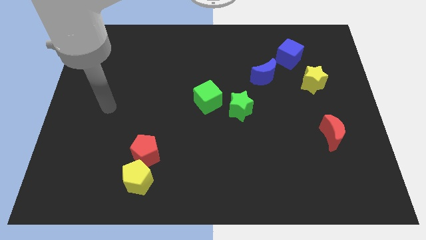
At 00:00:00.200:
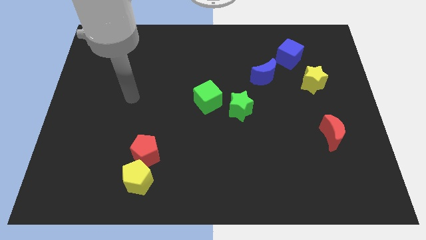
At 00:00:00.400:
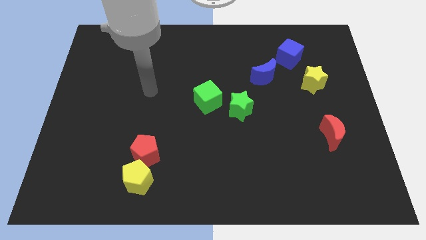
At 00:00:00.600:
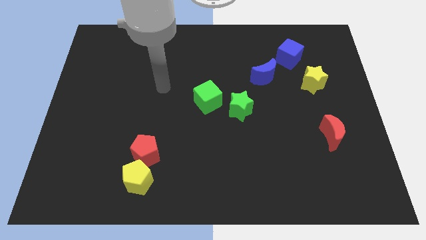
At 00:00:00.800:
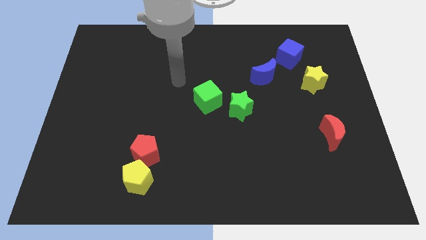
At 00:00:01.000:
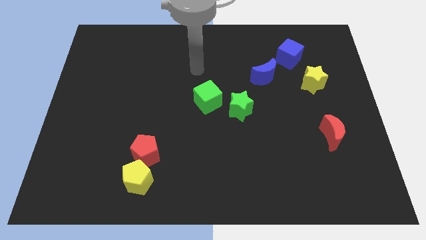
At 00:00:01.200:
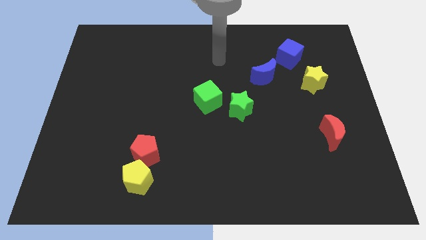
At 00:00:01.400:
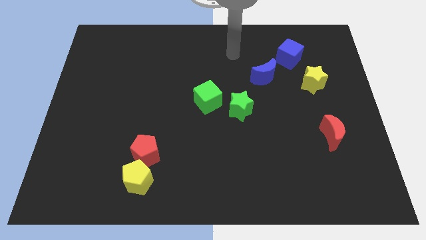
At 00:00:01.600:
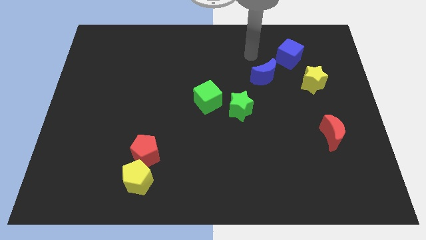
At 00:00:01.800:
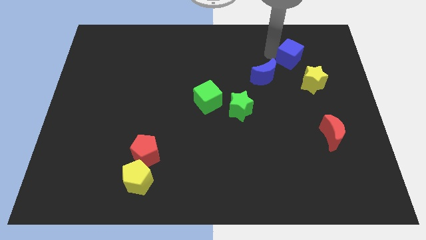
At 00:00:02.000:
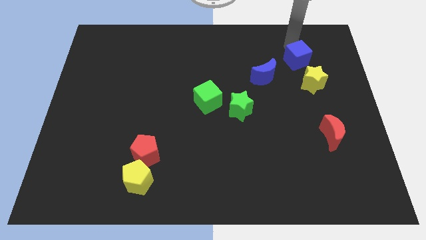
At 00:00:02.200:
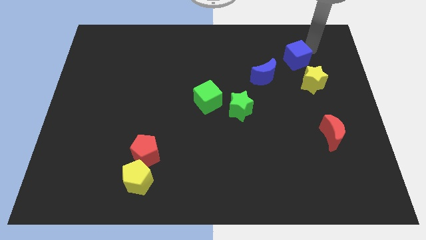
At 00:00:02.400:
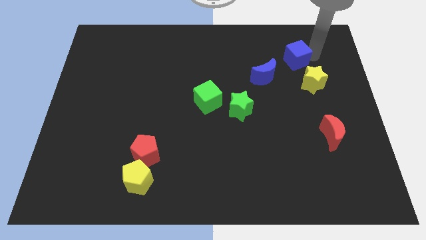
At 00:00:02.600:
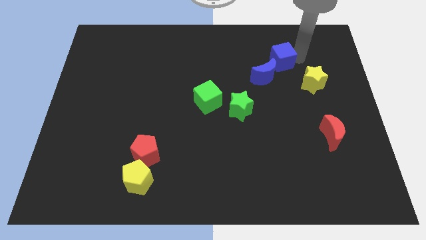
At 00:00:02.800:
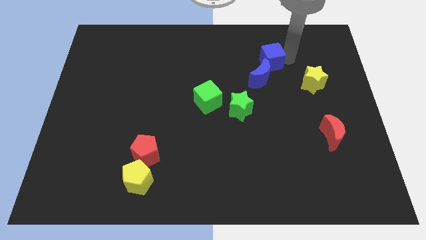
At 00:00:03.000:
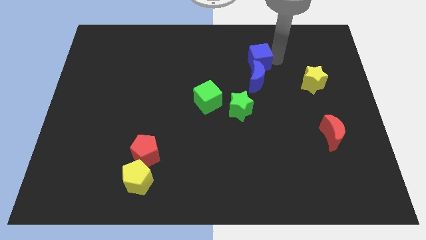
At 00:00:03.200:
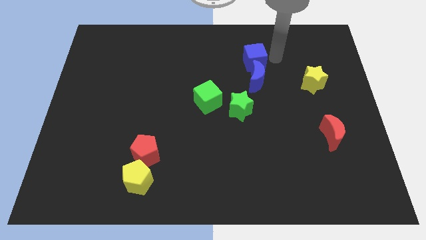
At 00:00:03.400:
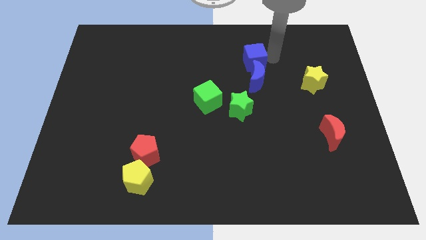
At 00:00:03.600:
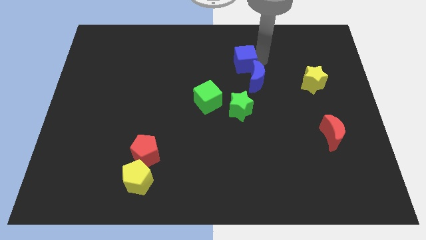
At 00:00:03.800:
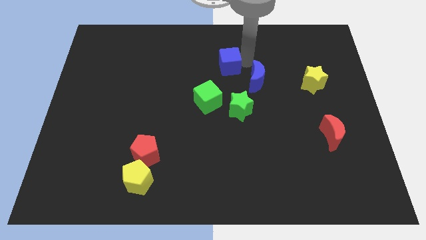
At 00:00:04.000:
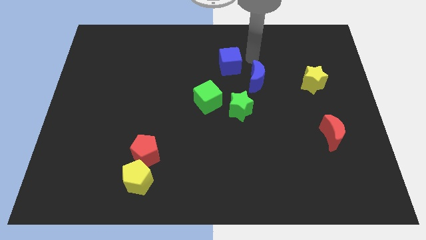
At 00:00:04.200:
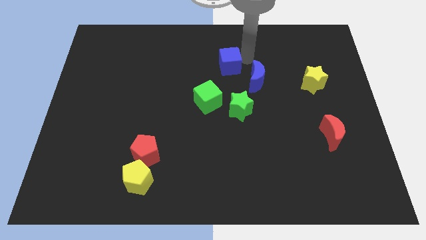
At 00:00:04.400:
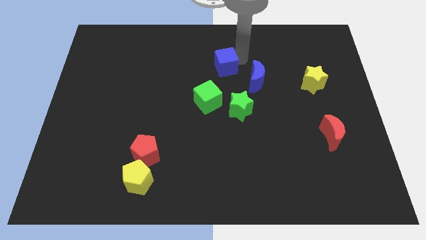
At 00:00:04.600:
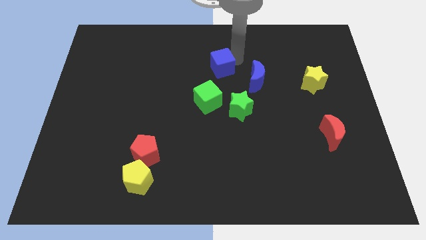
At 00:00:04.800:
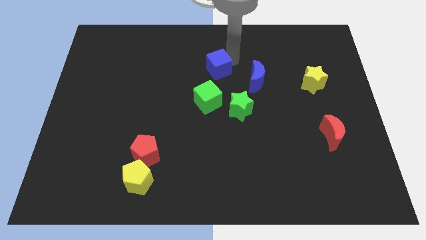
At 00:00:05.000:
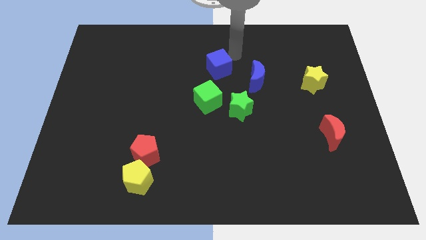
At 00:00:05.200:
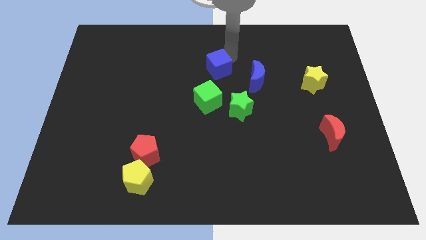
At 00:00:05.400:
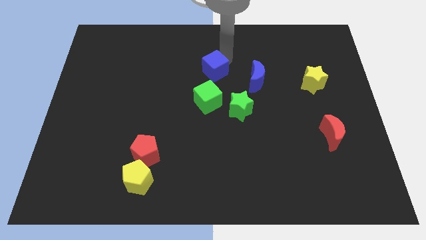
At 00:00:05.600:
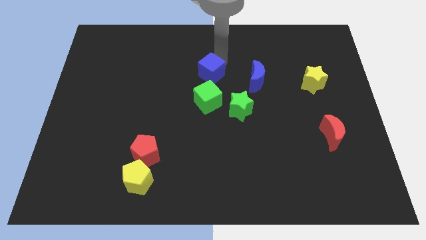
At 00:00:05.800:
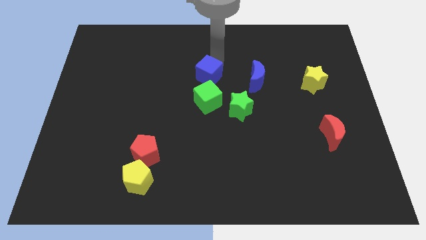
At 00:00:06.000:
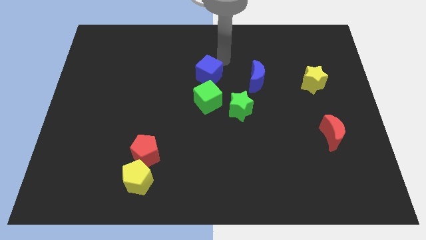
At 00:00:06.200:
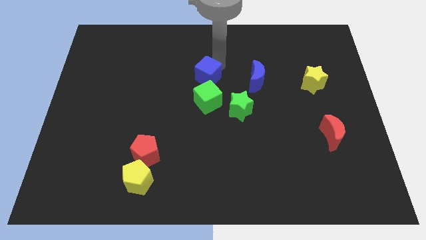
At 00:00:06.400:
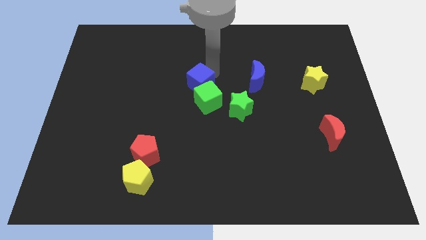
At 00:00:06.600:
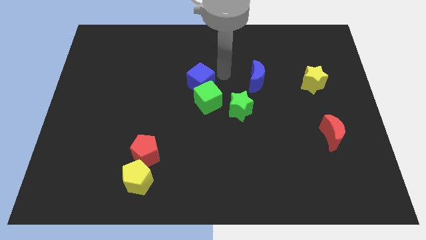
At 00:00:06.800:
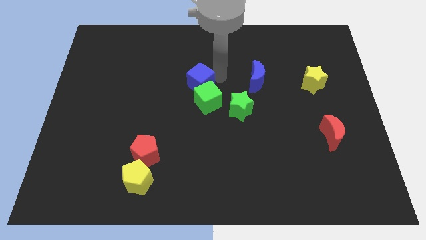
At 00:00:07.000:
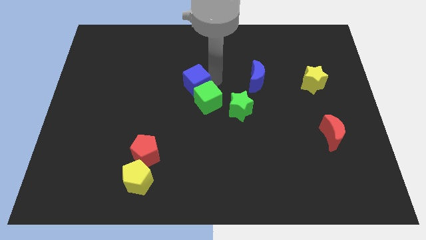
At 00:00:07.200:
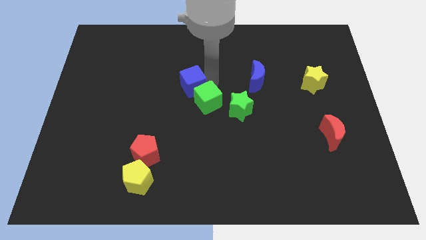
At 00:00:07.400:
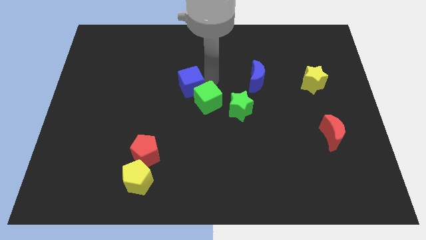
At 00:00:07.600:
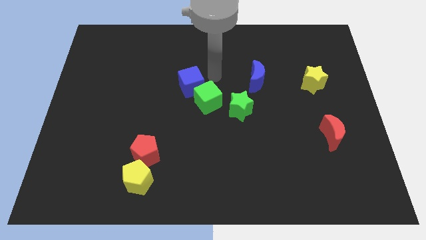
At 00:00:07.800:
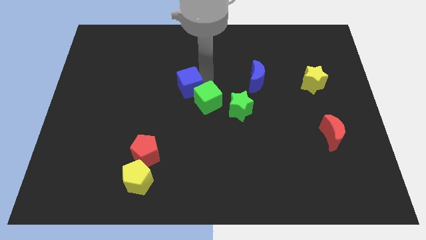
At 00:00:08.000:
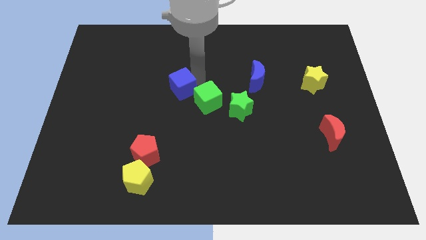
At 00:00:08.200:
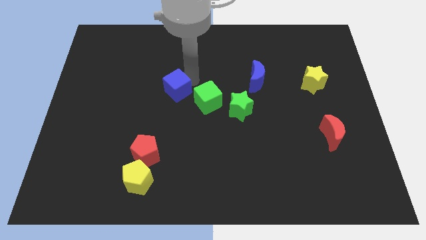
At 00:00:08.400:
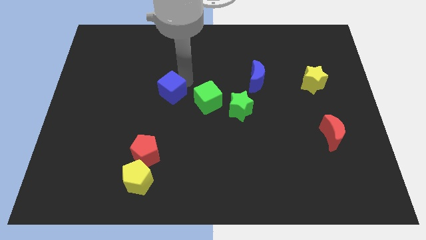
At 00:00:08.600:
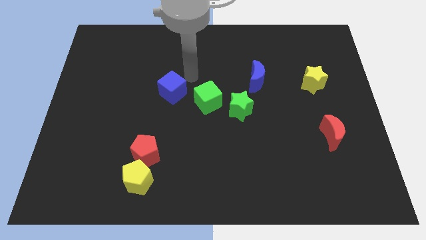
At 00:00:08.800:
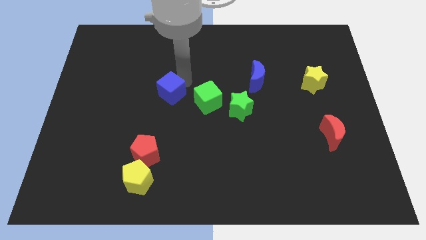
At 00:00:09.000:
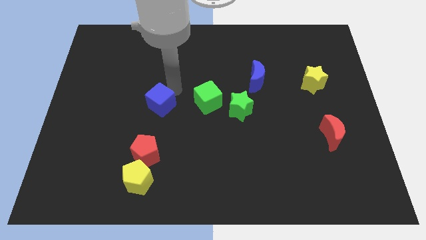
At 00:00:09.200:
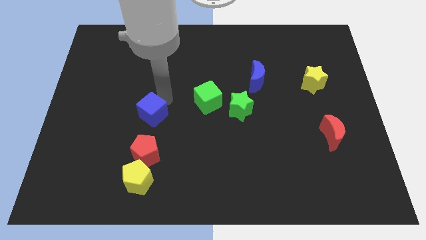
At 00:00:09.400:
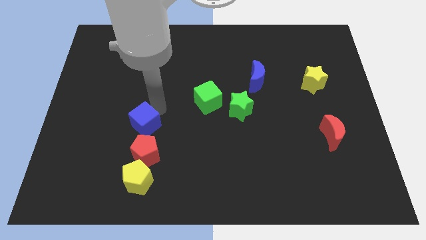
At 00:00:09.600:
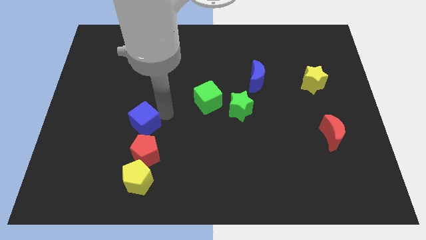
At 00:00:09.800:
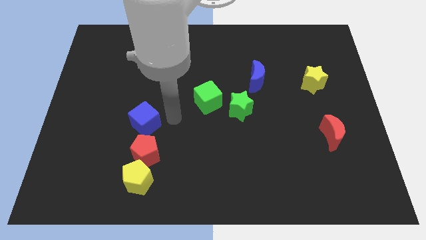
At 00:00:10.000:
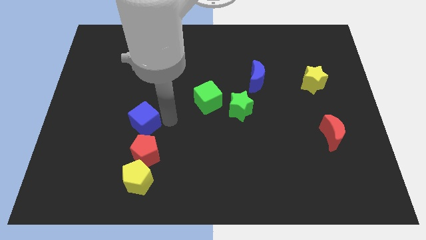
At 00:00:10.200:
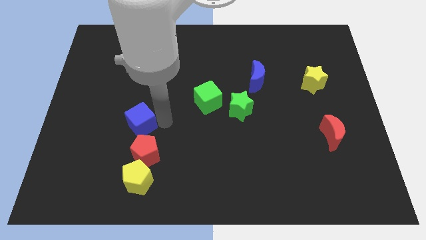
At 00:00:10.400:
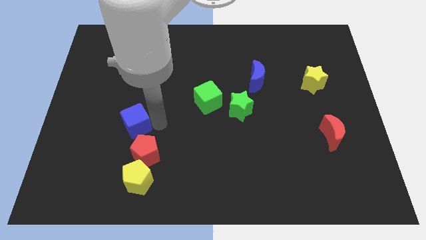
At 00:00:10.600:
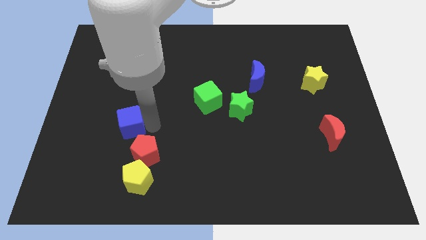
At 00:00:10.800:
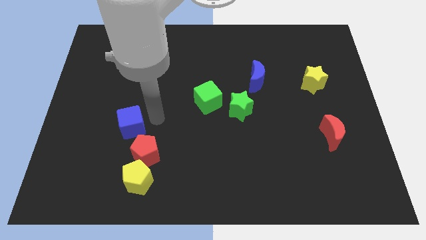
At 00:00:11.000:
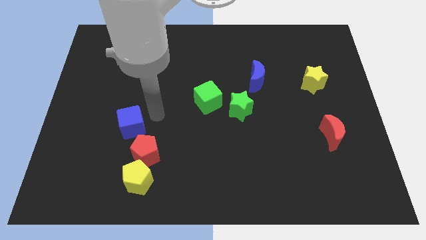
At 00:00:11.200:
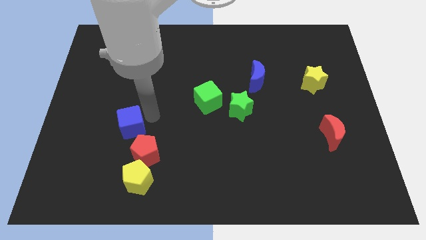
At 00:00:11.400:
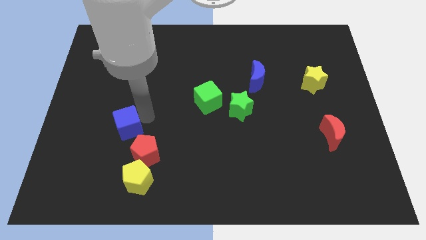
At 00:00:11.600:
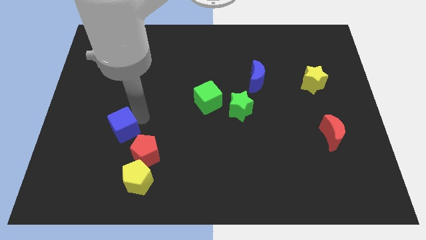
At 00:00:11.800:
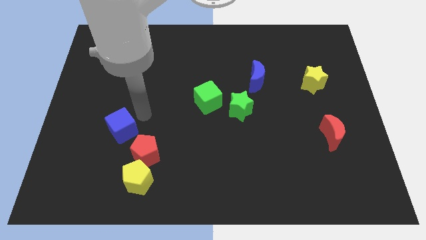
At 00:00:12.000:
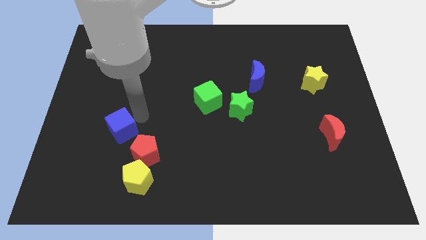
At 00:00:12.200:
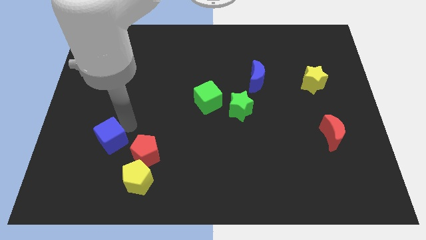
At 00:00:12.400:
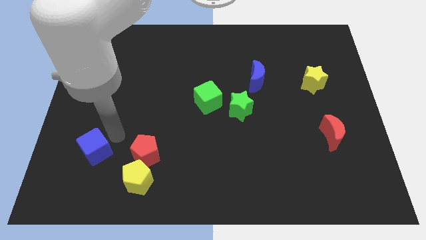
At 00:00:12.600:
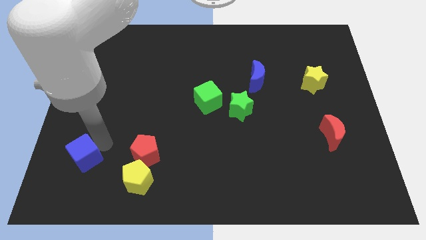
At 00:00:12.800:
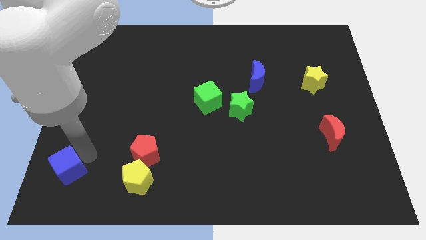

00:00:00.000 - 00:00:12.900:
slide the blue cube to the bottom left corner
